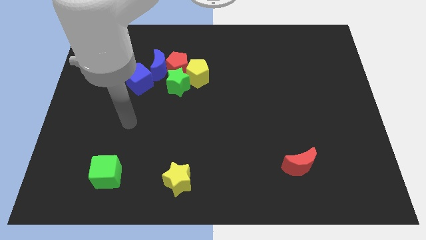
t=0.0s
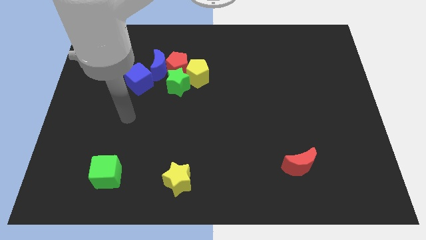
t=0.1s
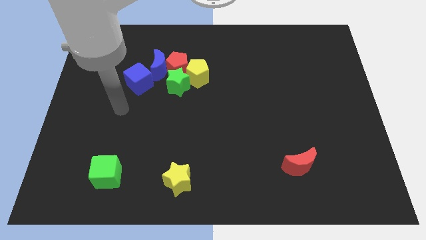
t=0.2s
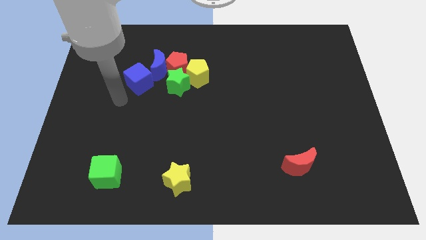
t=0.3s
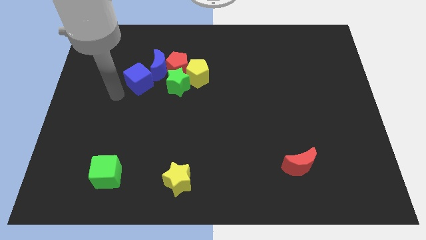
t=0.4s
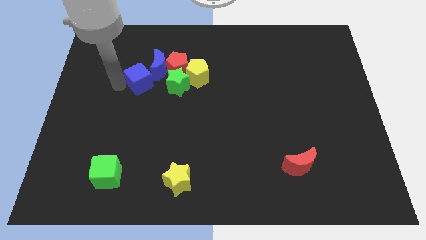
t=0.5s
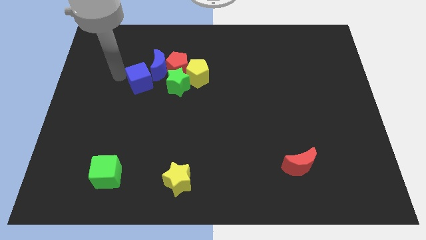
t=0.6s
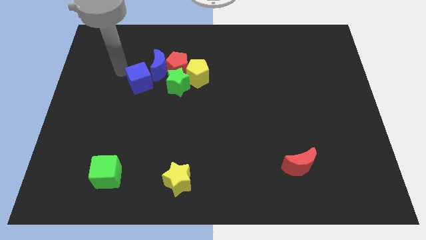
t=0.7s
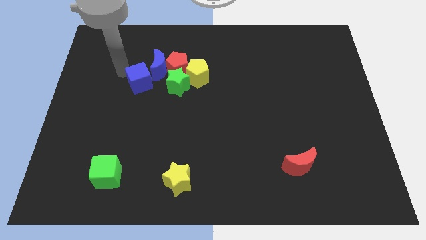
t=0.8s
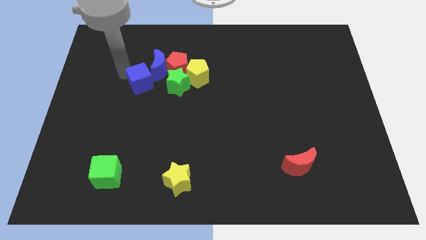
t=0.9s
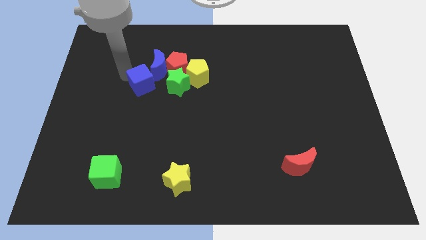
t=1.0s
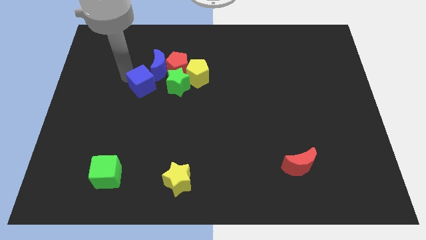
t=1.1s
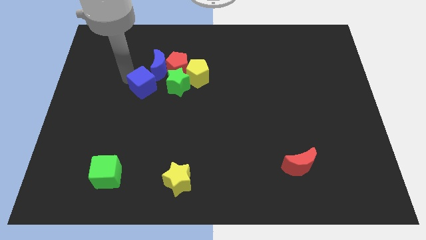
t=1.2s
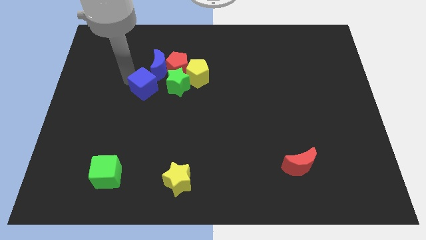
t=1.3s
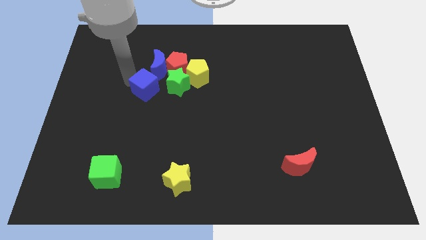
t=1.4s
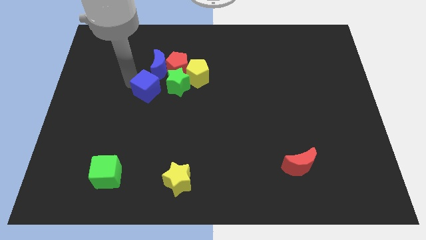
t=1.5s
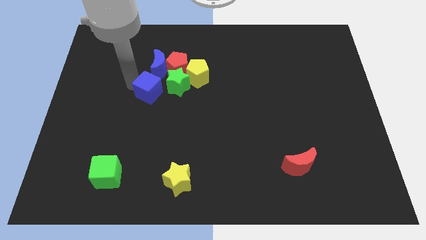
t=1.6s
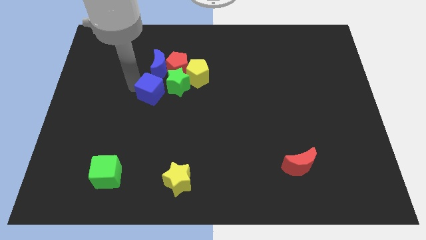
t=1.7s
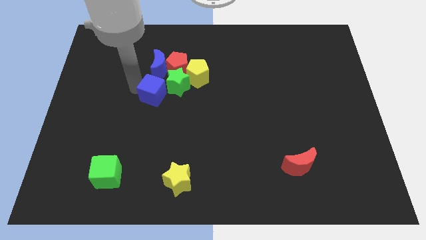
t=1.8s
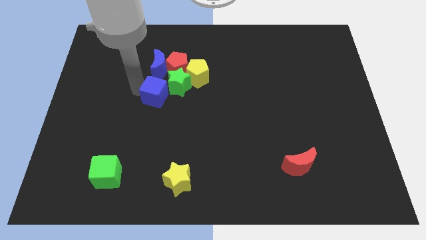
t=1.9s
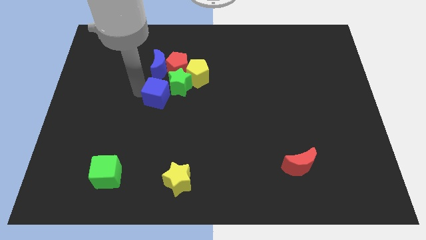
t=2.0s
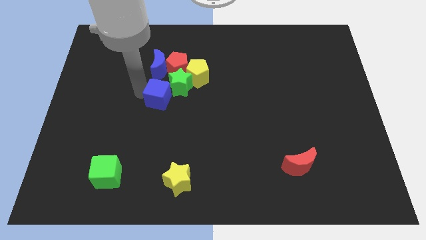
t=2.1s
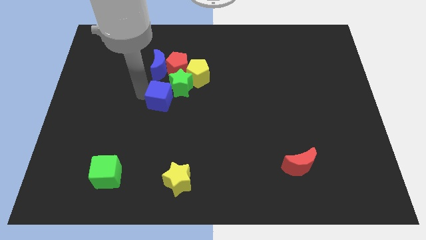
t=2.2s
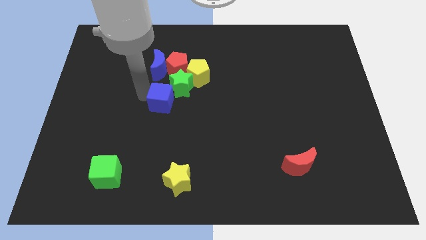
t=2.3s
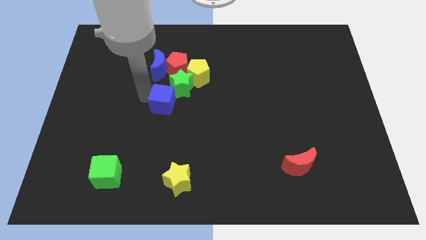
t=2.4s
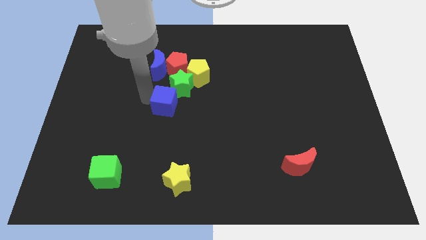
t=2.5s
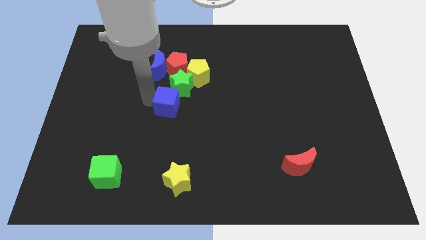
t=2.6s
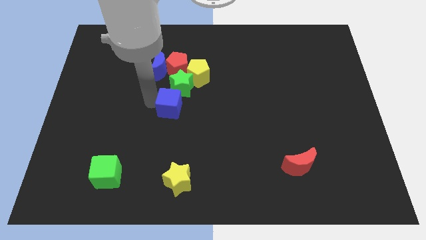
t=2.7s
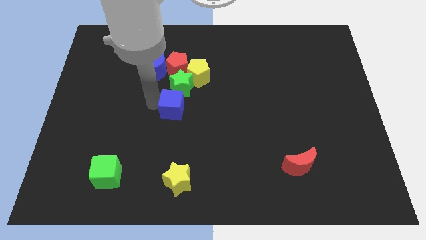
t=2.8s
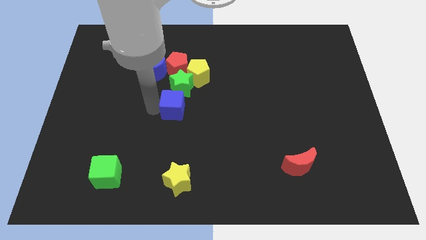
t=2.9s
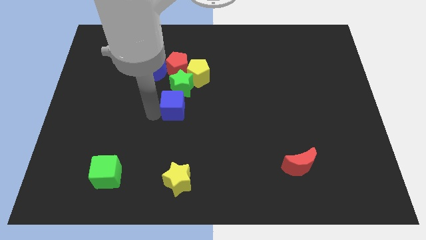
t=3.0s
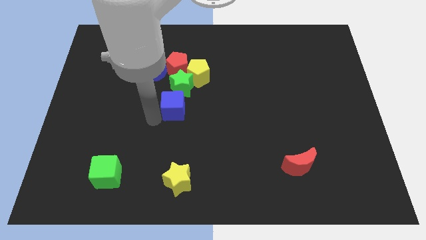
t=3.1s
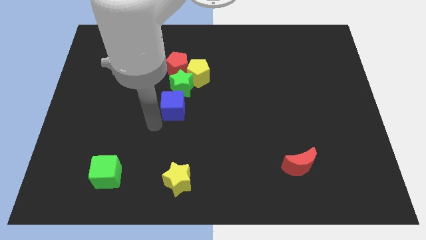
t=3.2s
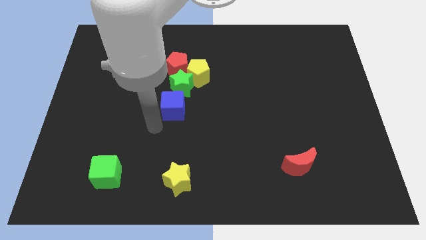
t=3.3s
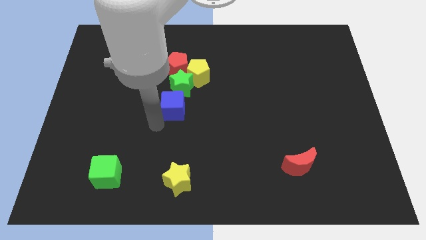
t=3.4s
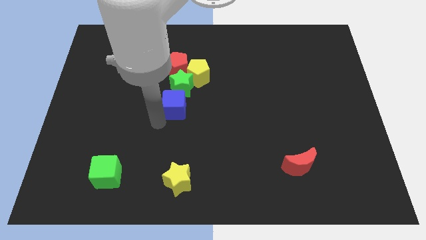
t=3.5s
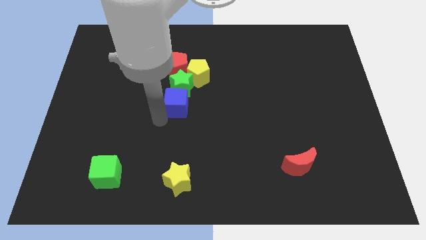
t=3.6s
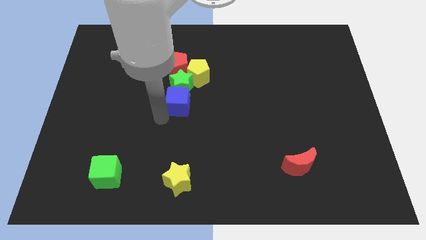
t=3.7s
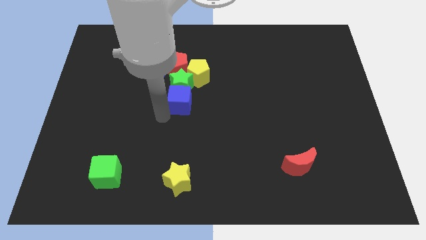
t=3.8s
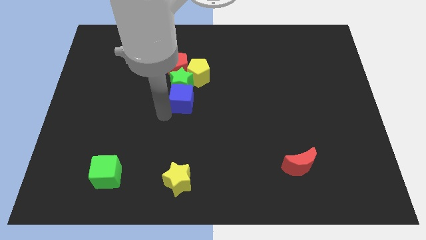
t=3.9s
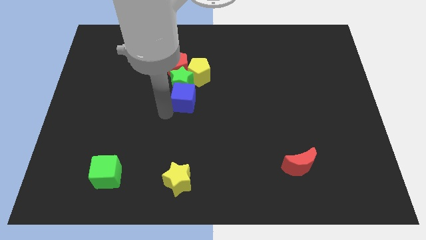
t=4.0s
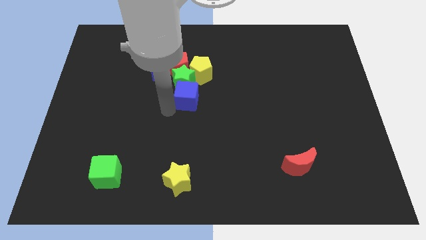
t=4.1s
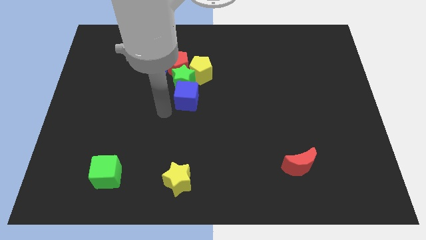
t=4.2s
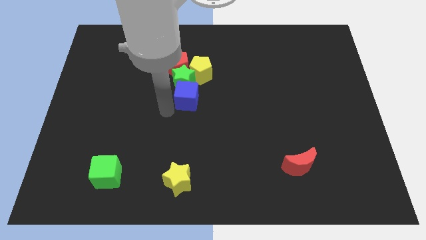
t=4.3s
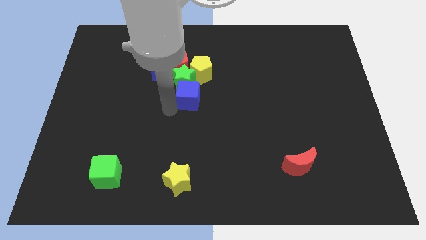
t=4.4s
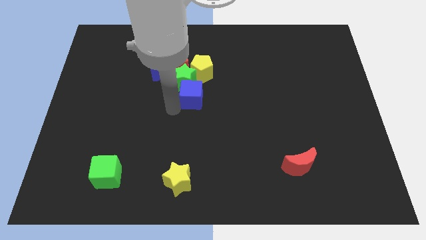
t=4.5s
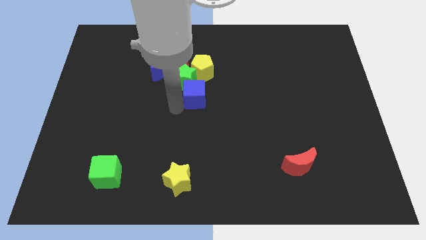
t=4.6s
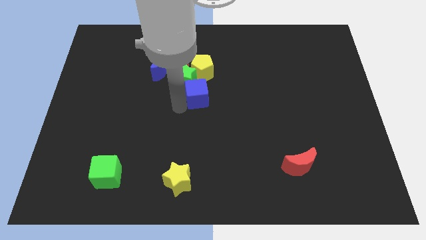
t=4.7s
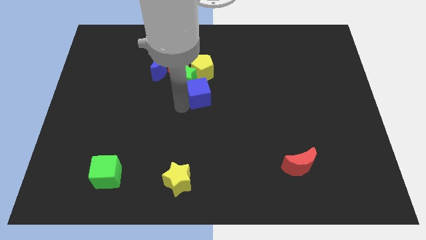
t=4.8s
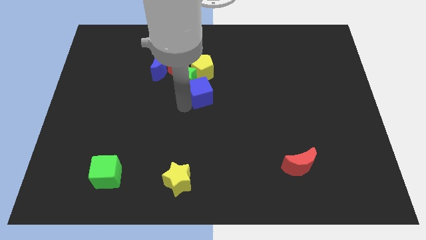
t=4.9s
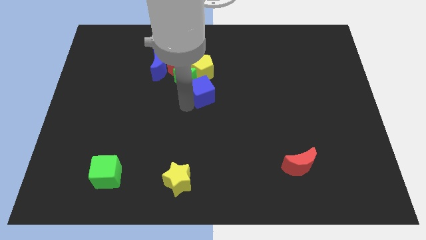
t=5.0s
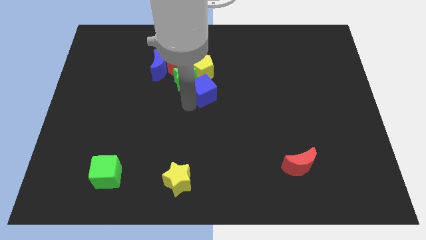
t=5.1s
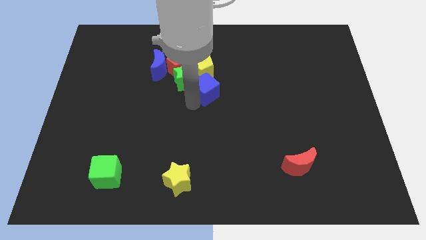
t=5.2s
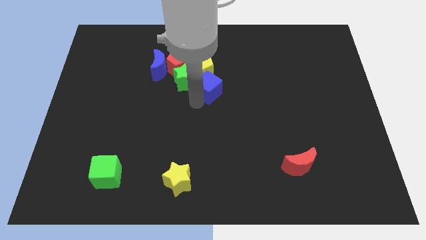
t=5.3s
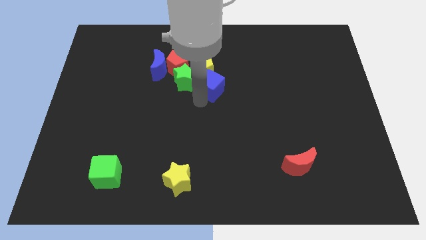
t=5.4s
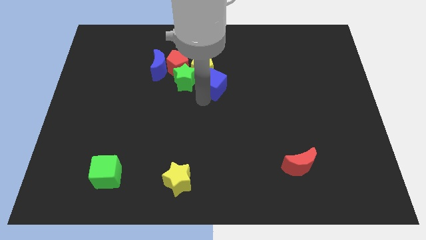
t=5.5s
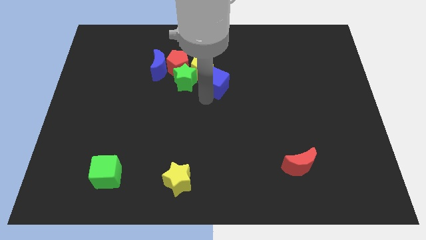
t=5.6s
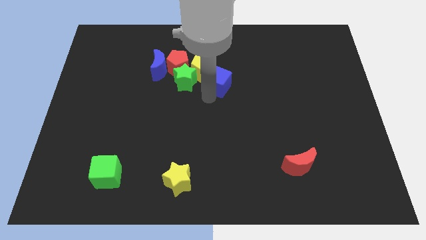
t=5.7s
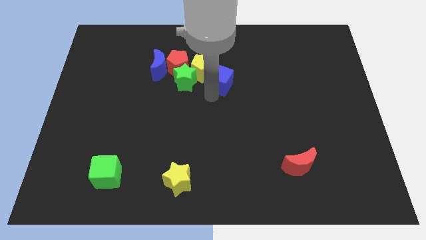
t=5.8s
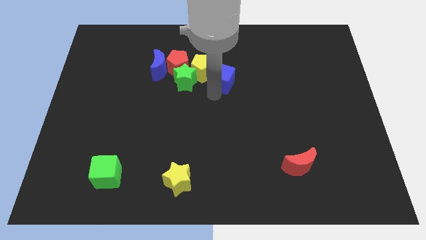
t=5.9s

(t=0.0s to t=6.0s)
put the blue cube just right of the red pentagon

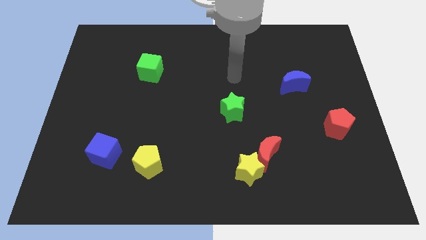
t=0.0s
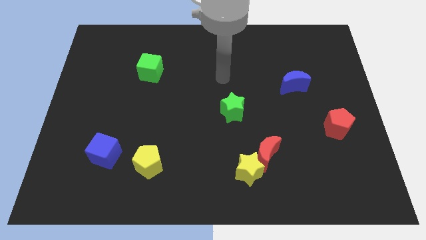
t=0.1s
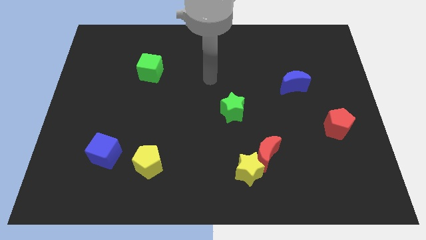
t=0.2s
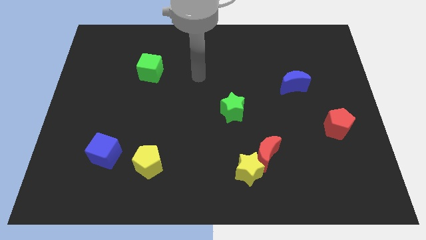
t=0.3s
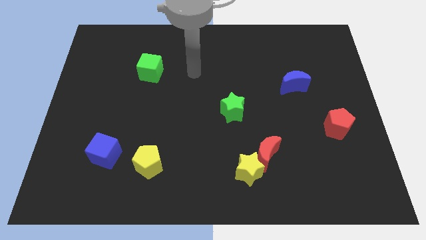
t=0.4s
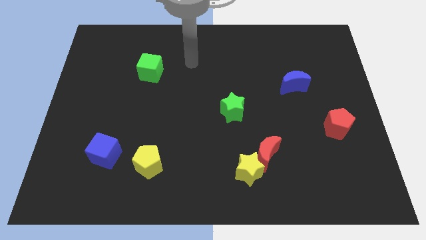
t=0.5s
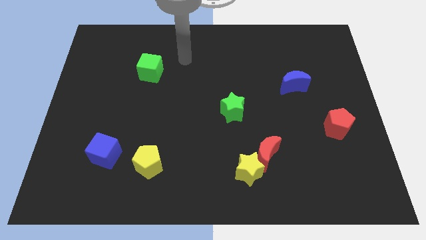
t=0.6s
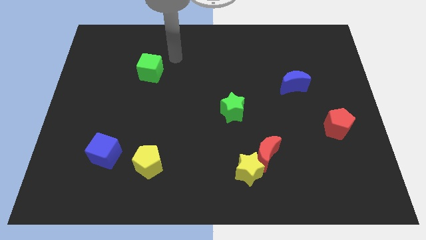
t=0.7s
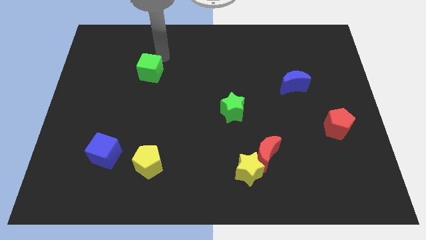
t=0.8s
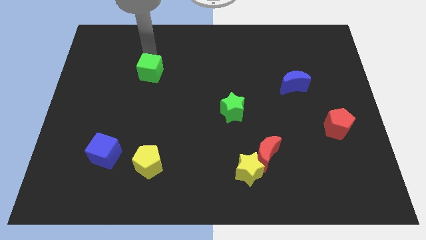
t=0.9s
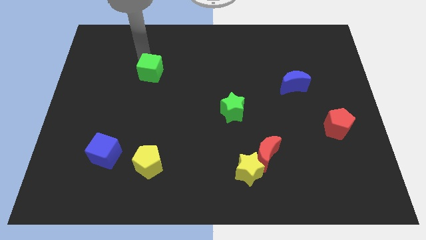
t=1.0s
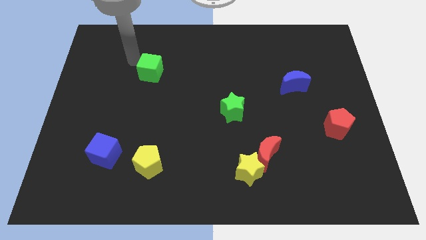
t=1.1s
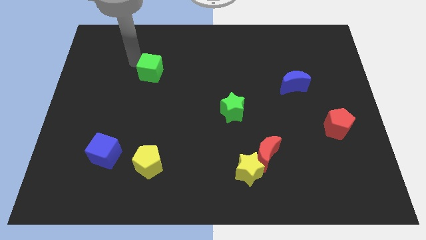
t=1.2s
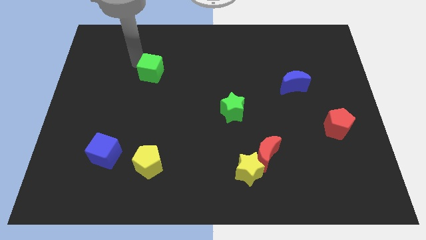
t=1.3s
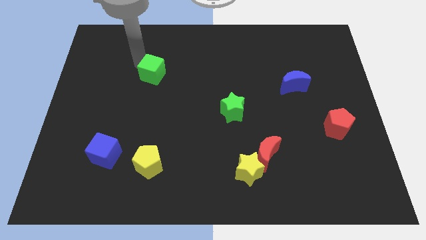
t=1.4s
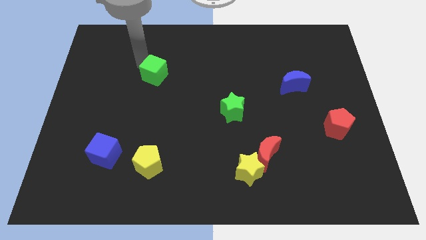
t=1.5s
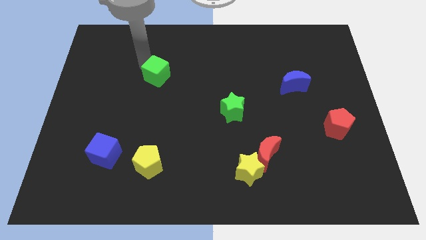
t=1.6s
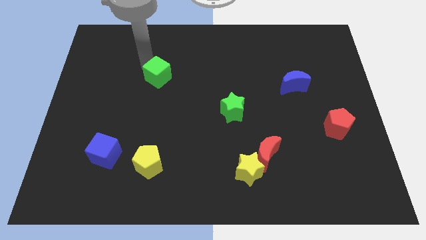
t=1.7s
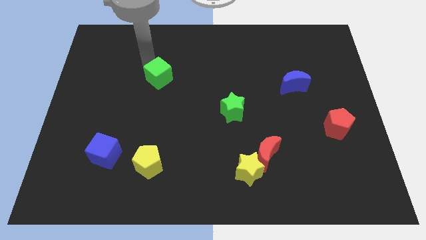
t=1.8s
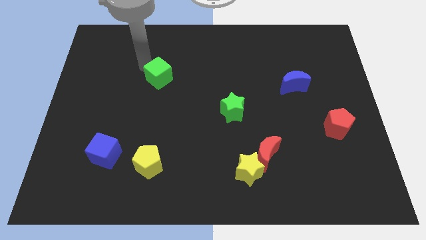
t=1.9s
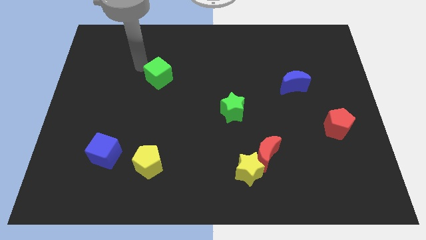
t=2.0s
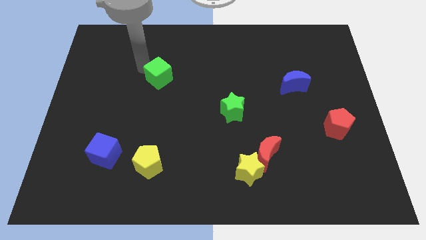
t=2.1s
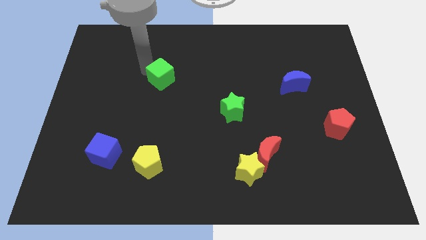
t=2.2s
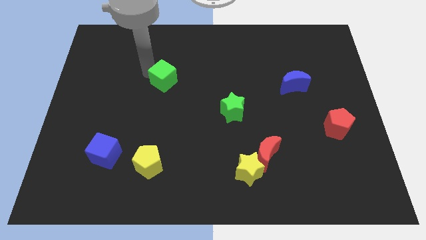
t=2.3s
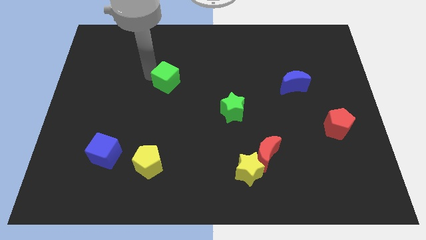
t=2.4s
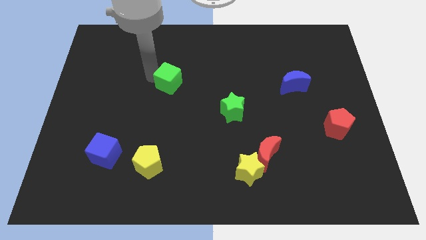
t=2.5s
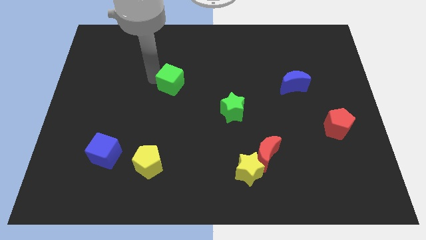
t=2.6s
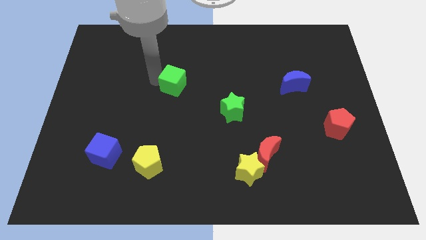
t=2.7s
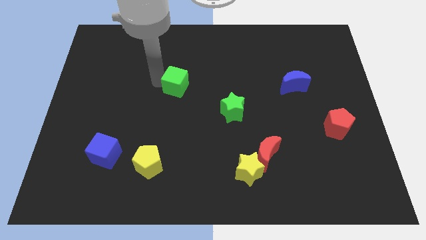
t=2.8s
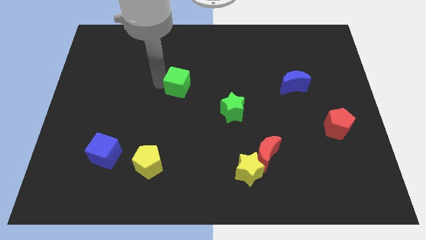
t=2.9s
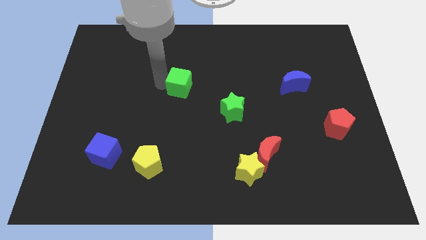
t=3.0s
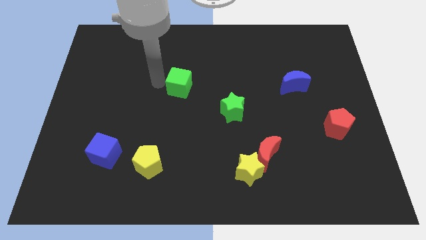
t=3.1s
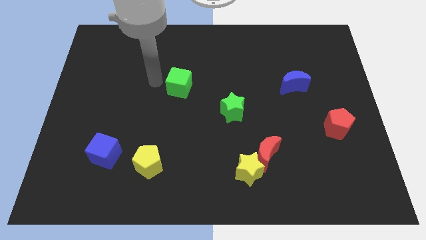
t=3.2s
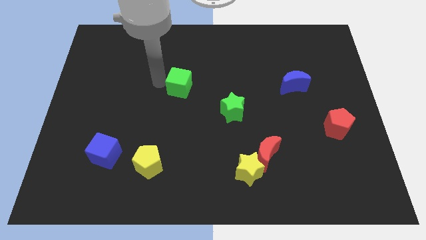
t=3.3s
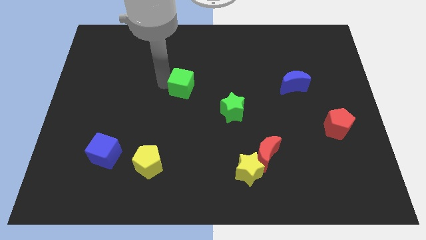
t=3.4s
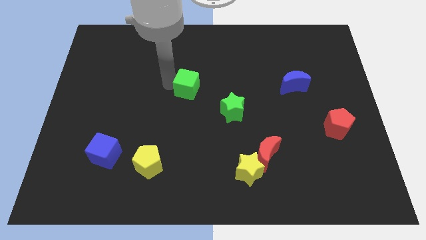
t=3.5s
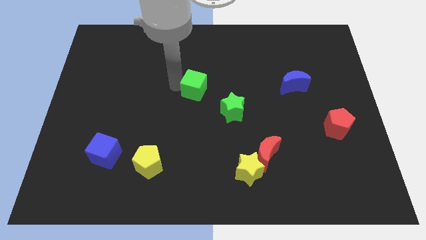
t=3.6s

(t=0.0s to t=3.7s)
slide the green cube diagonally up and to the left of the green star
